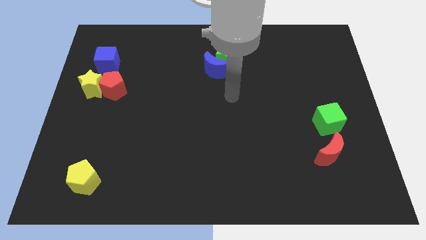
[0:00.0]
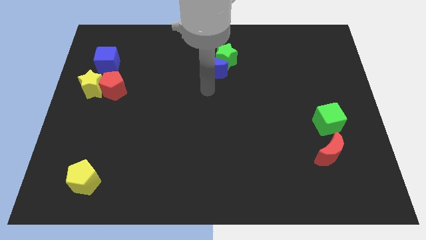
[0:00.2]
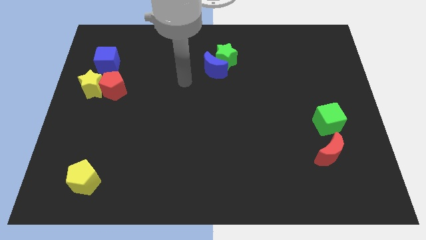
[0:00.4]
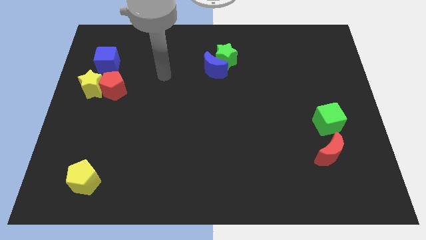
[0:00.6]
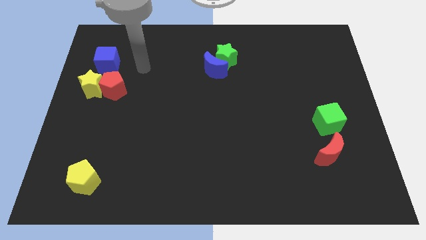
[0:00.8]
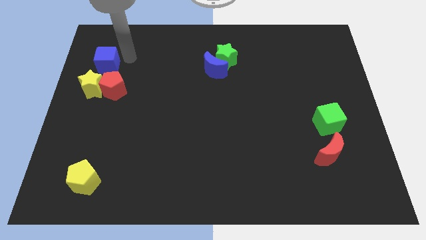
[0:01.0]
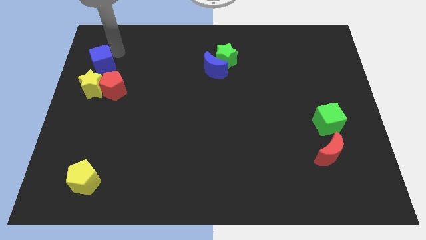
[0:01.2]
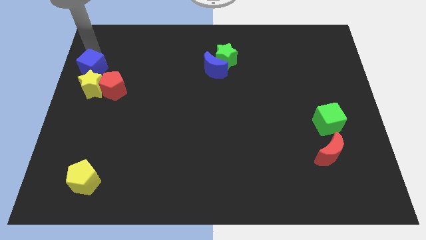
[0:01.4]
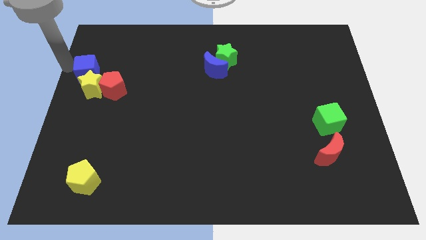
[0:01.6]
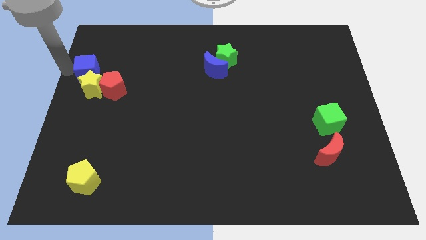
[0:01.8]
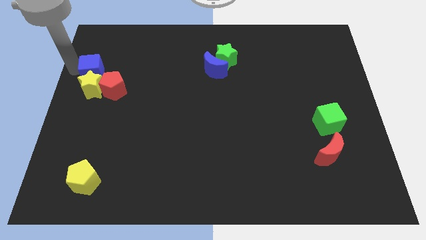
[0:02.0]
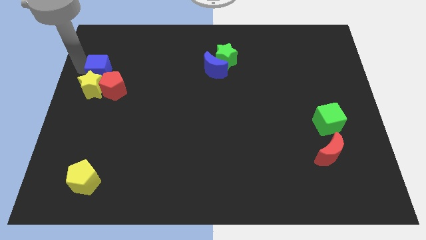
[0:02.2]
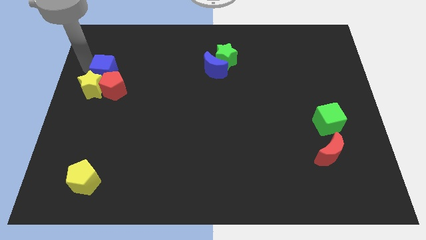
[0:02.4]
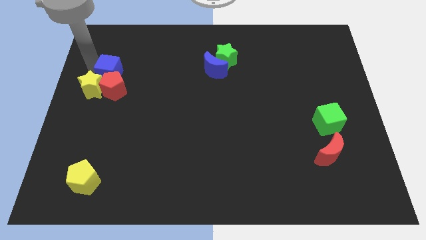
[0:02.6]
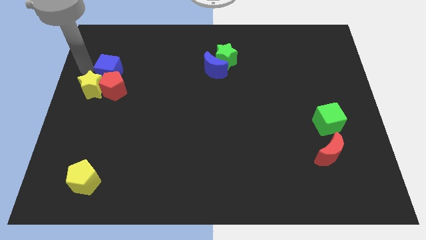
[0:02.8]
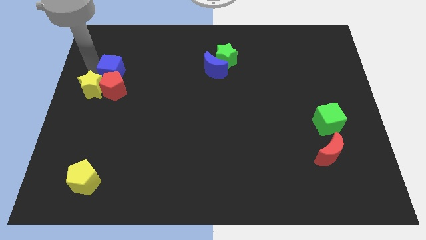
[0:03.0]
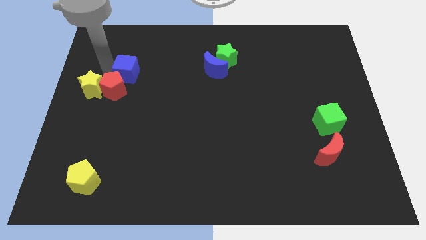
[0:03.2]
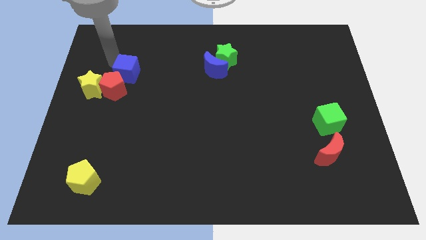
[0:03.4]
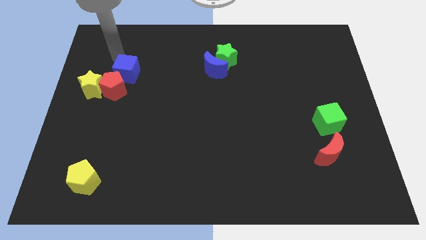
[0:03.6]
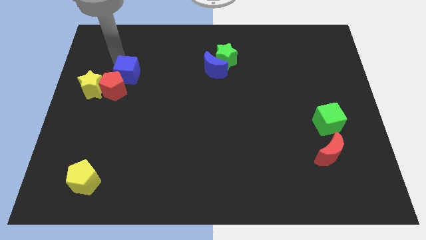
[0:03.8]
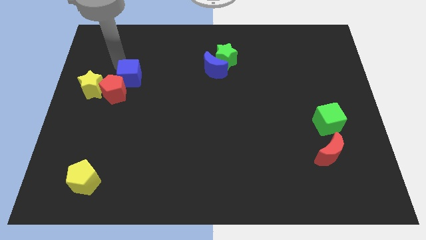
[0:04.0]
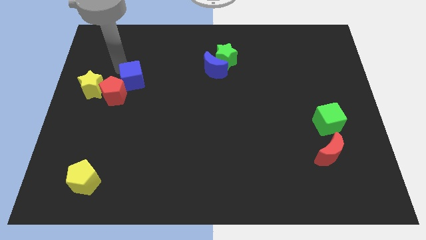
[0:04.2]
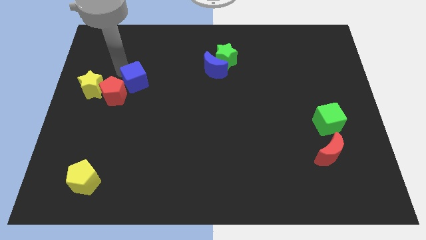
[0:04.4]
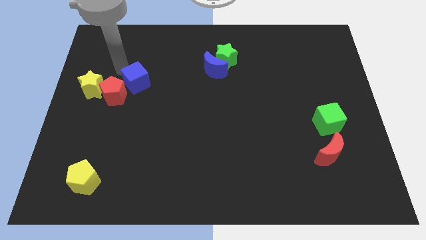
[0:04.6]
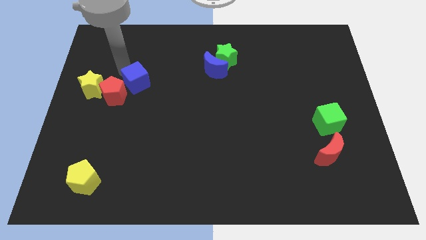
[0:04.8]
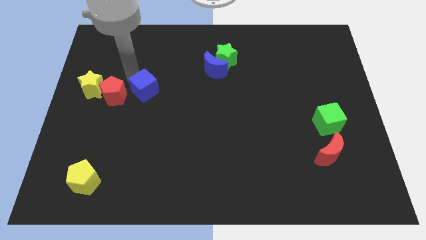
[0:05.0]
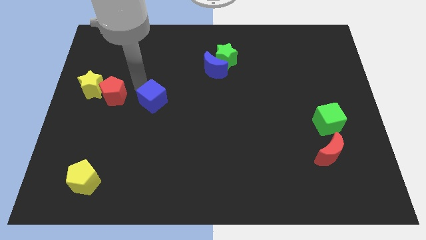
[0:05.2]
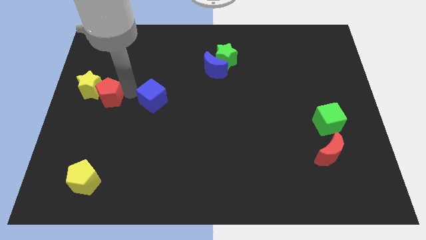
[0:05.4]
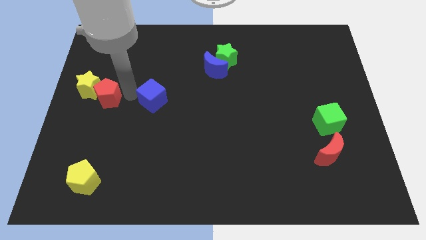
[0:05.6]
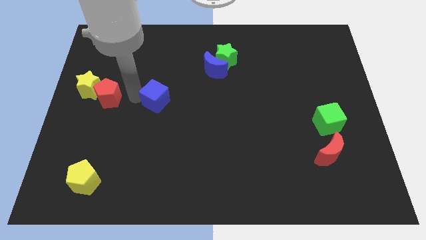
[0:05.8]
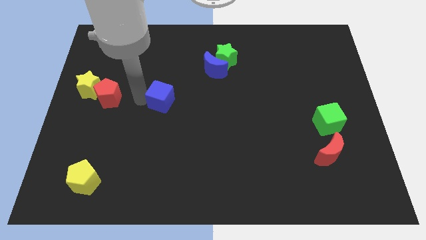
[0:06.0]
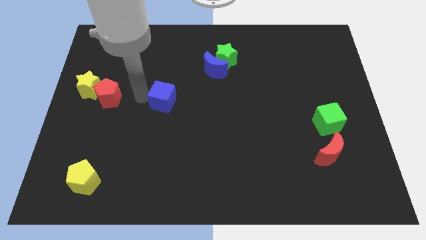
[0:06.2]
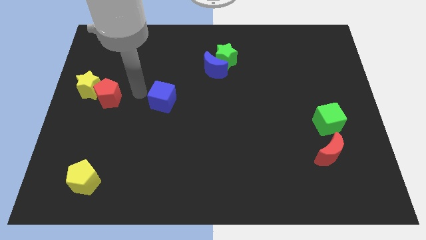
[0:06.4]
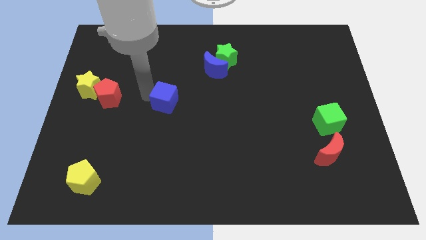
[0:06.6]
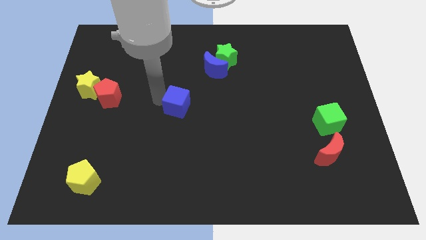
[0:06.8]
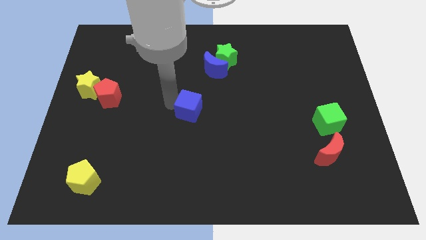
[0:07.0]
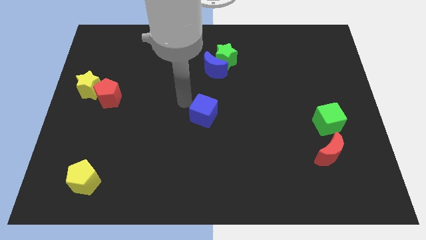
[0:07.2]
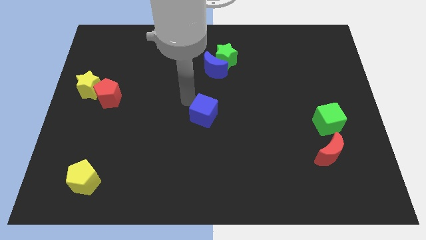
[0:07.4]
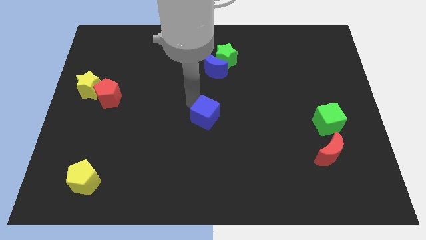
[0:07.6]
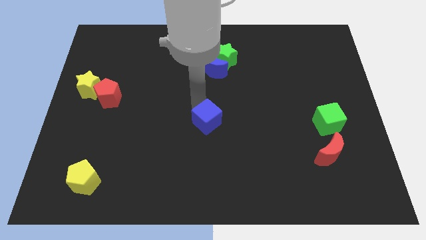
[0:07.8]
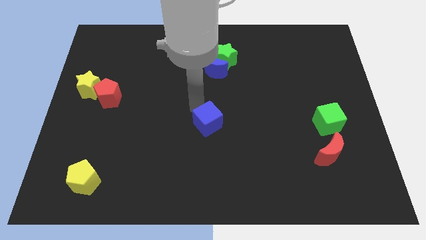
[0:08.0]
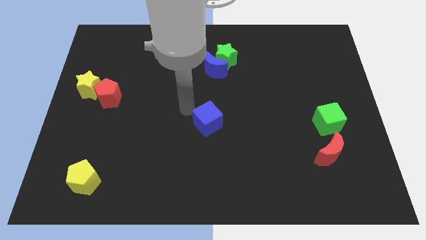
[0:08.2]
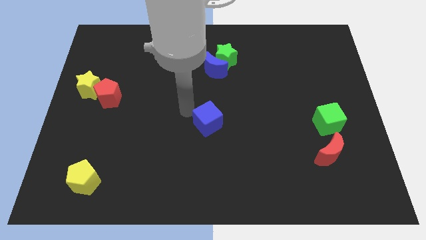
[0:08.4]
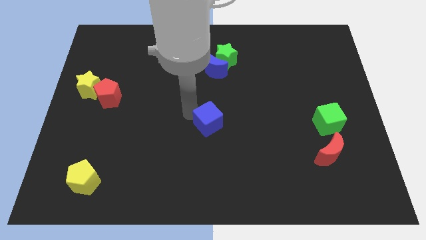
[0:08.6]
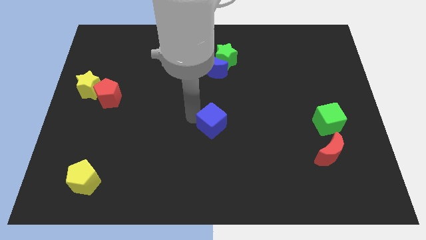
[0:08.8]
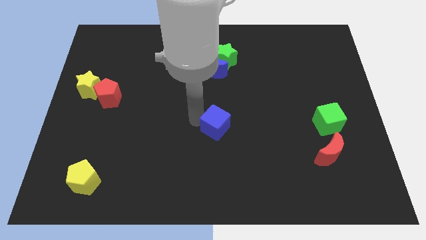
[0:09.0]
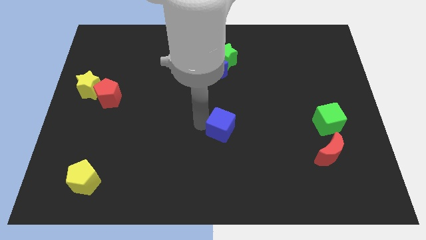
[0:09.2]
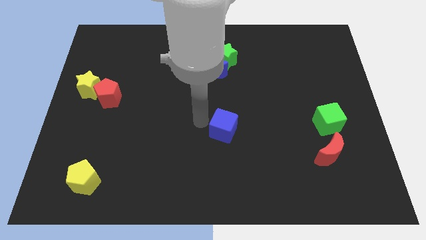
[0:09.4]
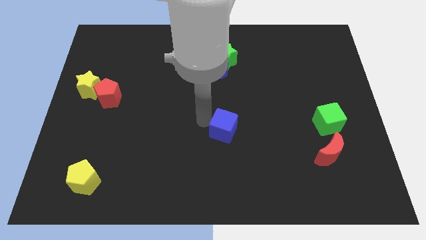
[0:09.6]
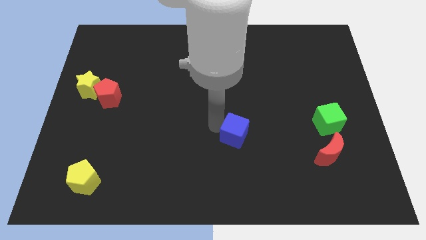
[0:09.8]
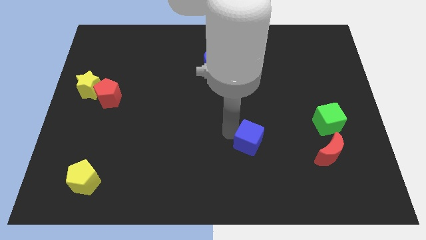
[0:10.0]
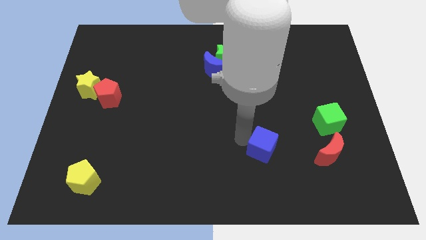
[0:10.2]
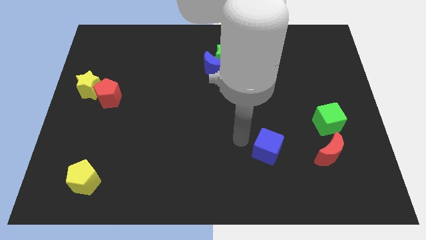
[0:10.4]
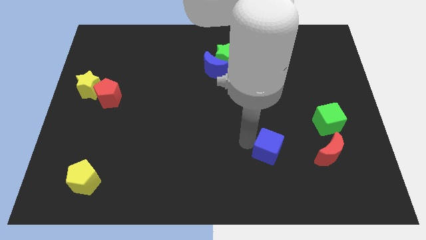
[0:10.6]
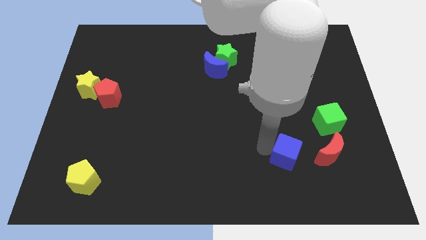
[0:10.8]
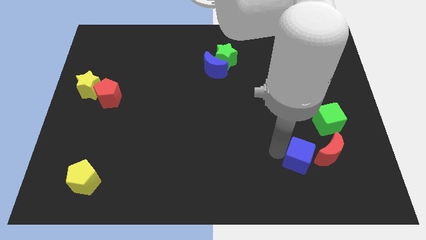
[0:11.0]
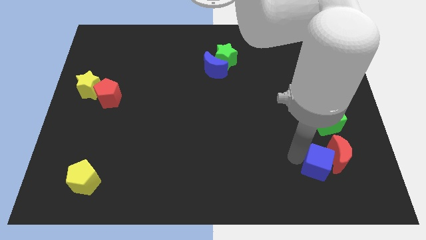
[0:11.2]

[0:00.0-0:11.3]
slide the blue cube to the bottom side of the green cube

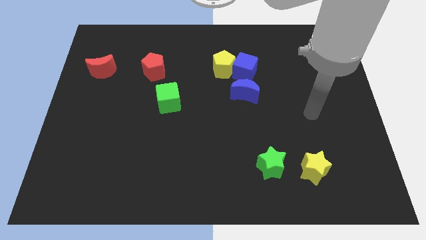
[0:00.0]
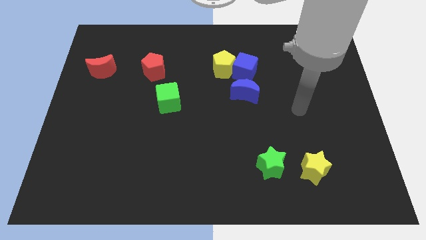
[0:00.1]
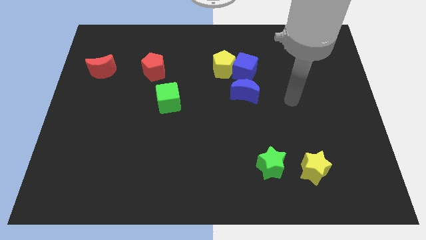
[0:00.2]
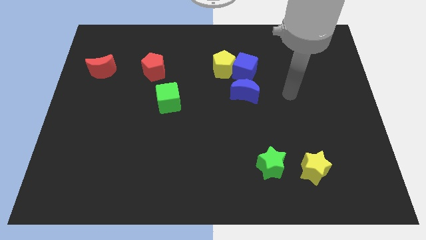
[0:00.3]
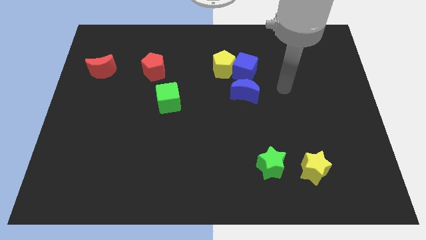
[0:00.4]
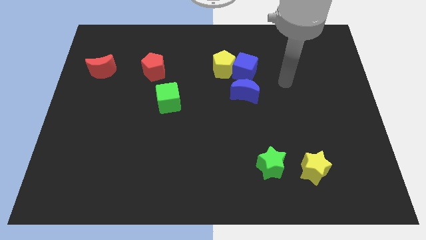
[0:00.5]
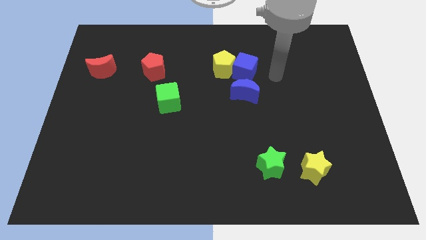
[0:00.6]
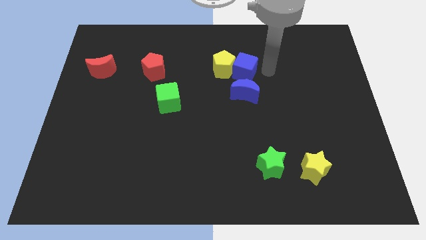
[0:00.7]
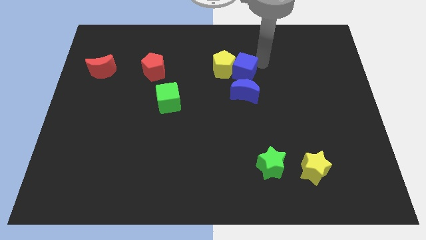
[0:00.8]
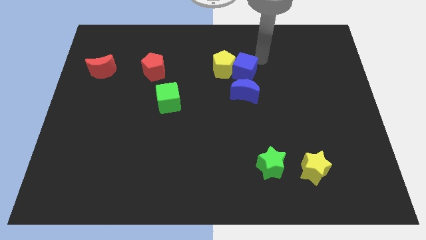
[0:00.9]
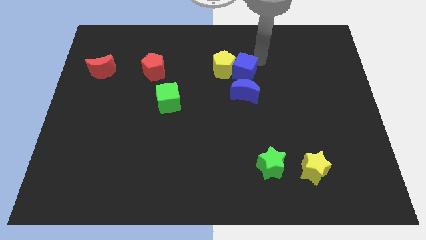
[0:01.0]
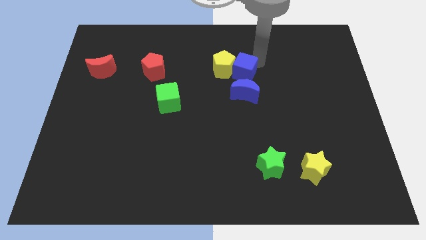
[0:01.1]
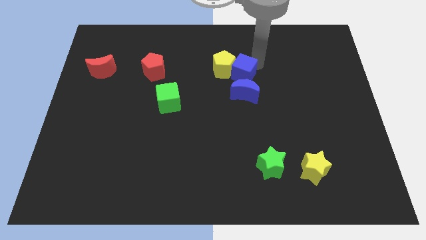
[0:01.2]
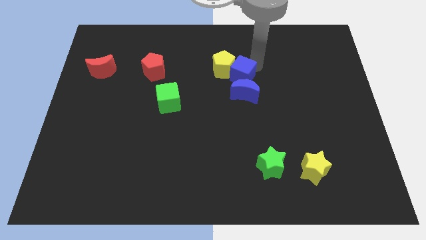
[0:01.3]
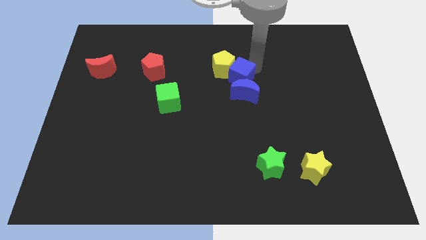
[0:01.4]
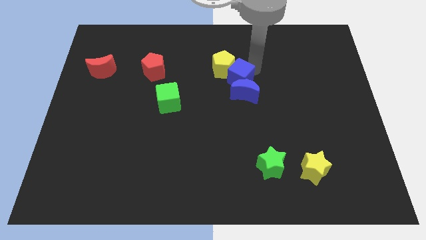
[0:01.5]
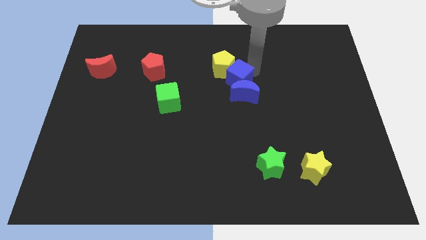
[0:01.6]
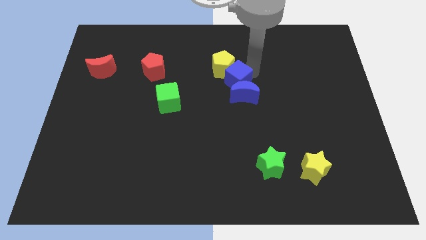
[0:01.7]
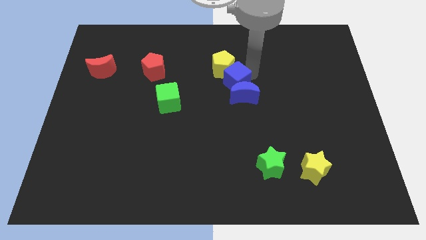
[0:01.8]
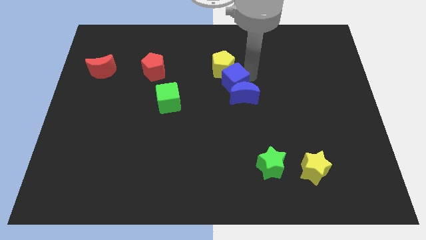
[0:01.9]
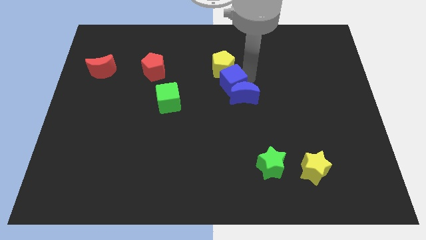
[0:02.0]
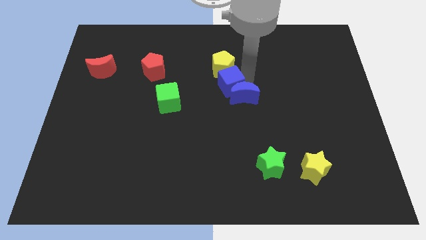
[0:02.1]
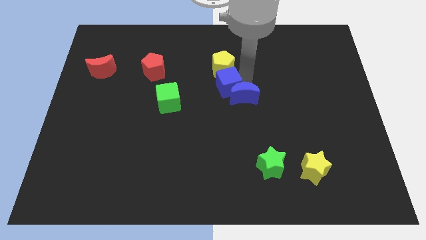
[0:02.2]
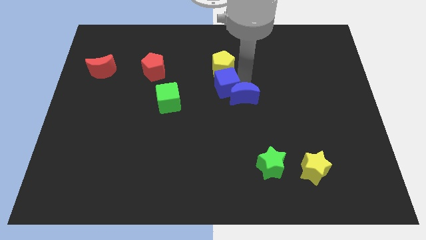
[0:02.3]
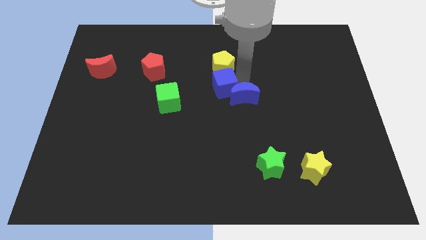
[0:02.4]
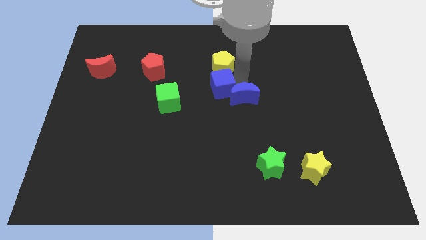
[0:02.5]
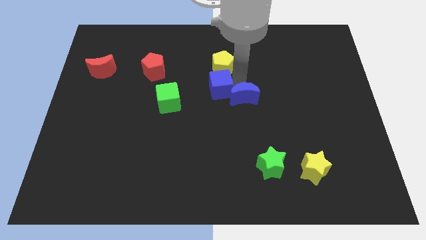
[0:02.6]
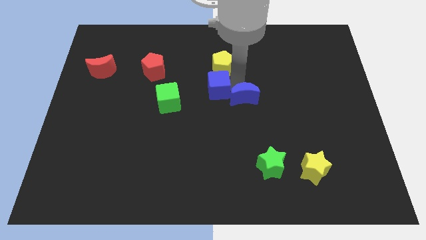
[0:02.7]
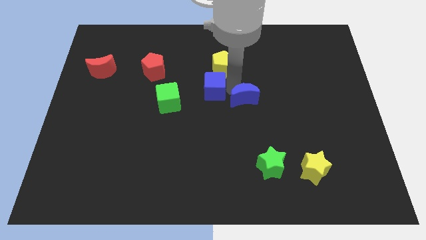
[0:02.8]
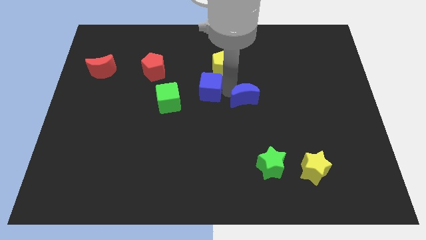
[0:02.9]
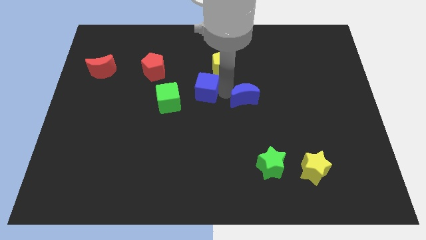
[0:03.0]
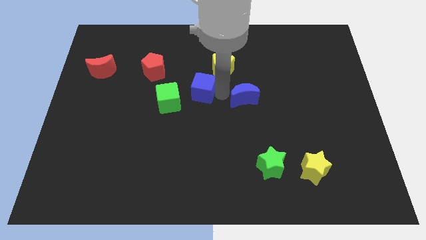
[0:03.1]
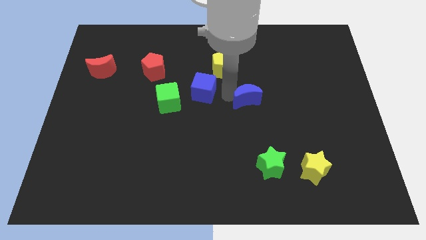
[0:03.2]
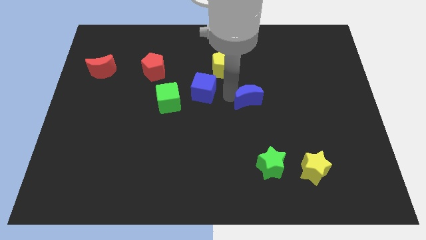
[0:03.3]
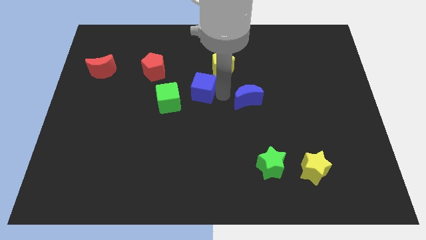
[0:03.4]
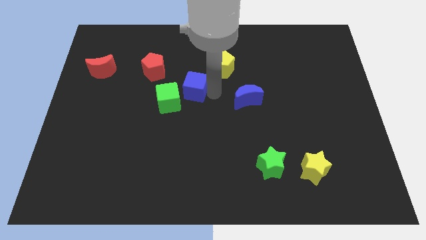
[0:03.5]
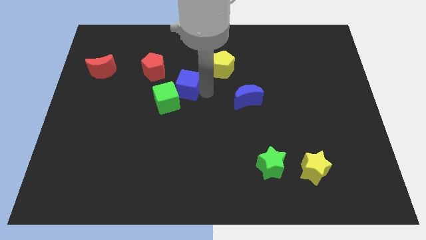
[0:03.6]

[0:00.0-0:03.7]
slide the blue cube to the bottom right side of the red pentagon
